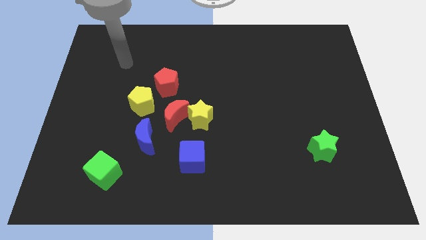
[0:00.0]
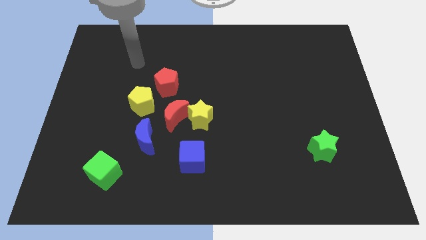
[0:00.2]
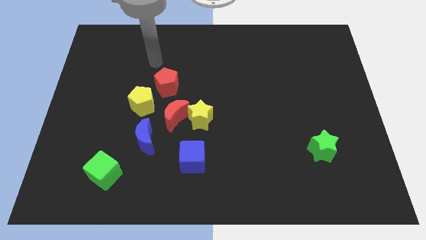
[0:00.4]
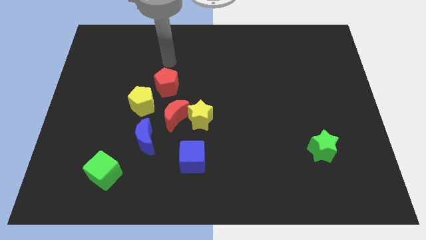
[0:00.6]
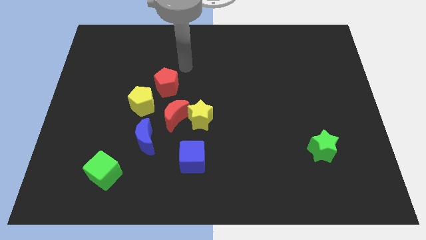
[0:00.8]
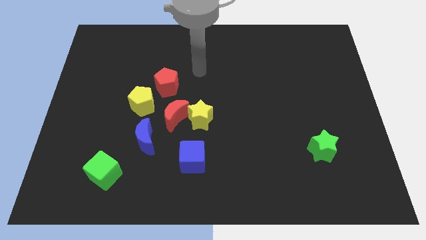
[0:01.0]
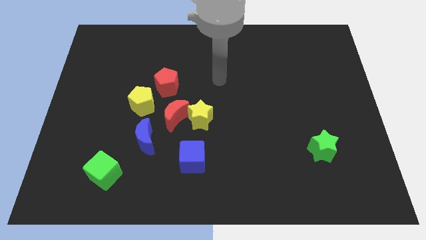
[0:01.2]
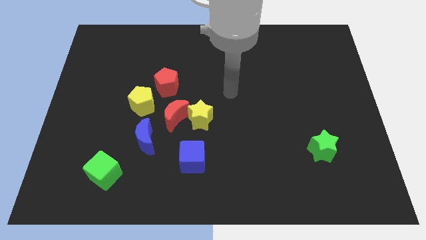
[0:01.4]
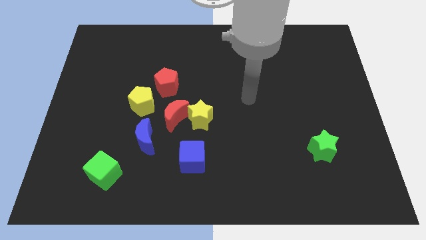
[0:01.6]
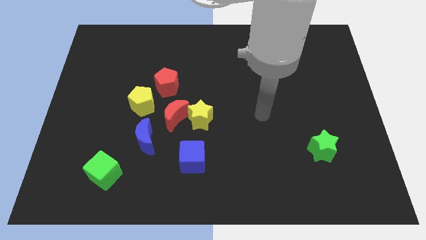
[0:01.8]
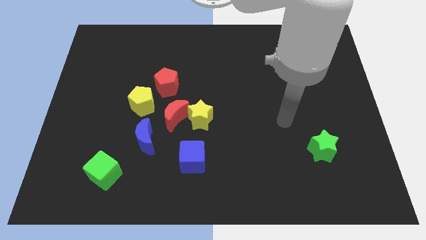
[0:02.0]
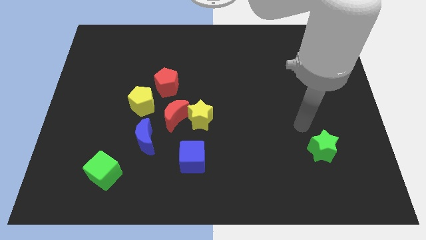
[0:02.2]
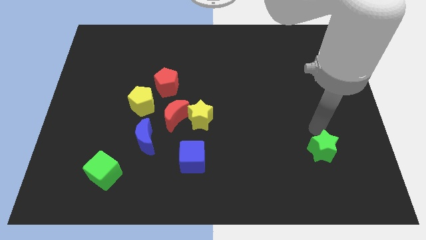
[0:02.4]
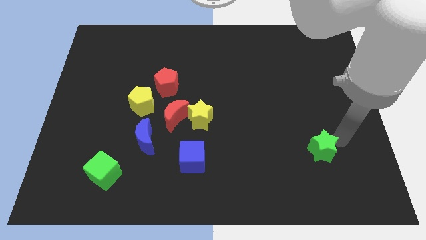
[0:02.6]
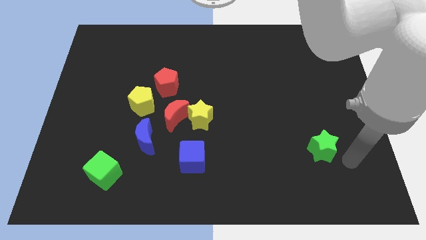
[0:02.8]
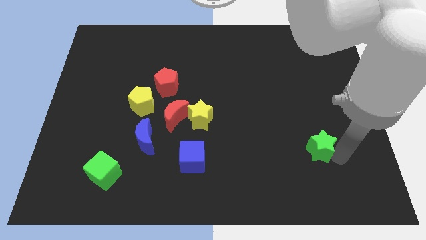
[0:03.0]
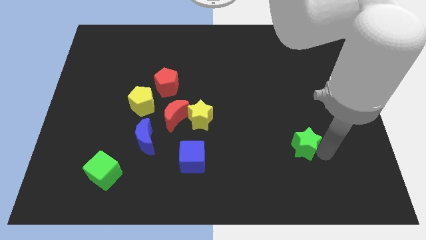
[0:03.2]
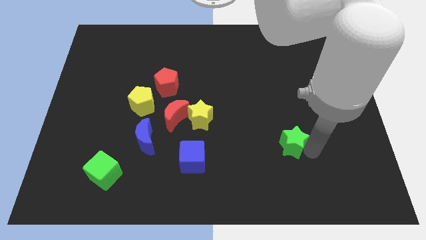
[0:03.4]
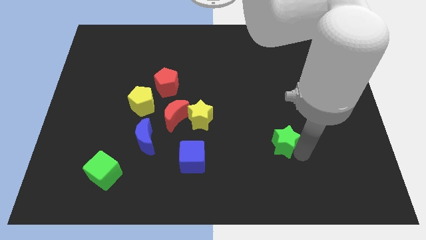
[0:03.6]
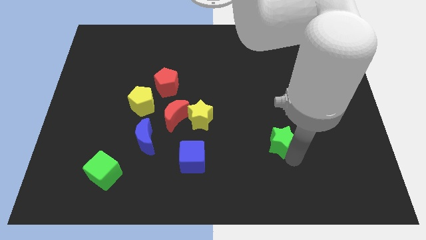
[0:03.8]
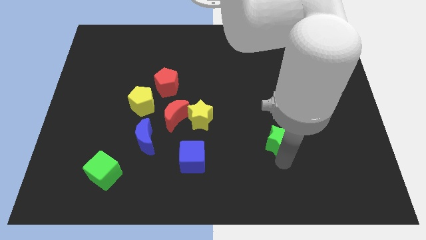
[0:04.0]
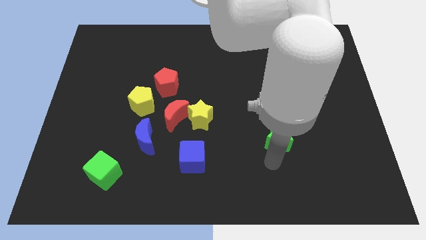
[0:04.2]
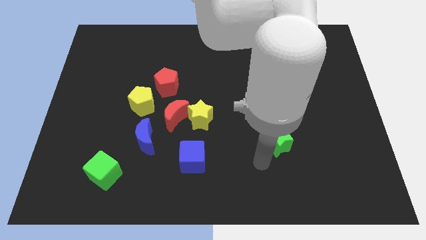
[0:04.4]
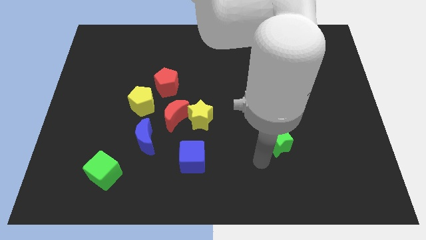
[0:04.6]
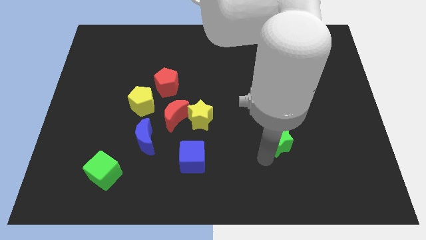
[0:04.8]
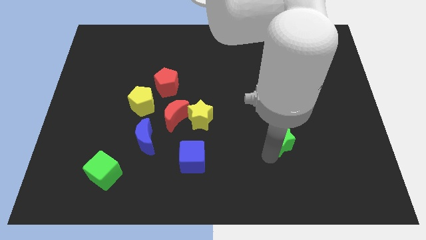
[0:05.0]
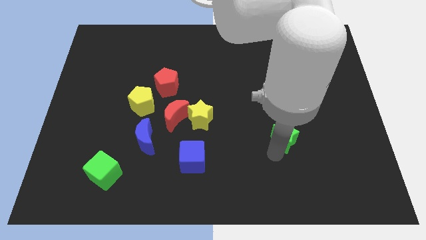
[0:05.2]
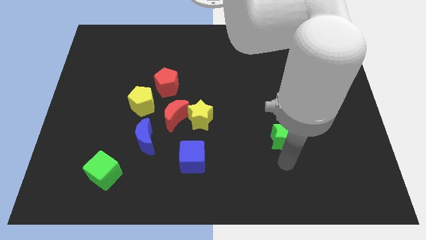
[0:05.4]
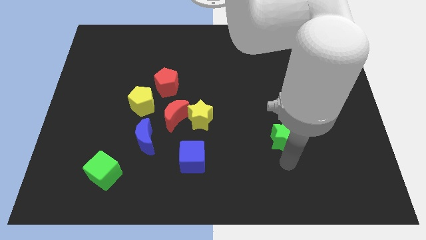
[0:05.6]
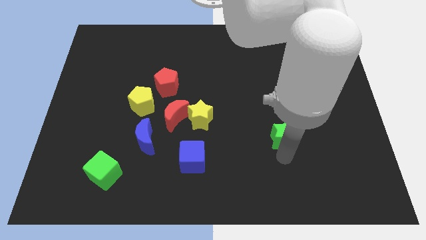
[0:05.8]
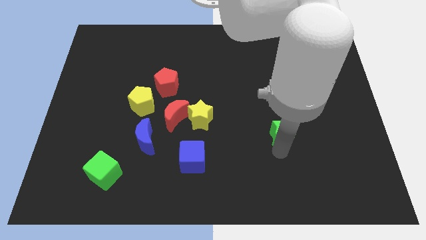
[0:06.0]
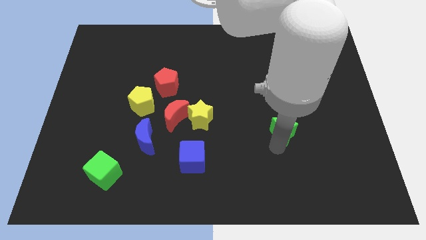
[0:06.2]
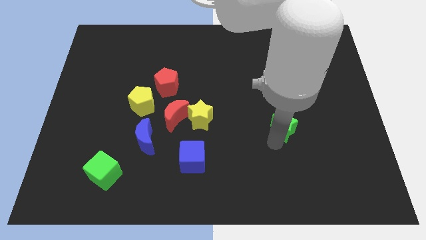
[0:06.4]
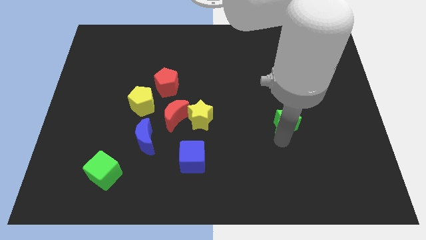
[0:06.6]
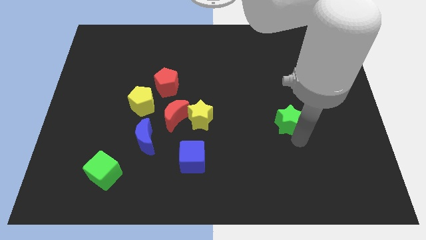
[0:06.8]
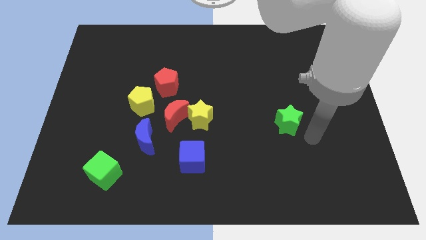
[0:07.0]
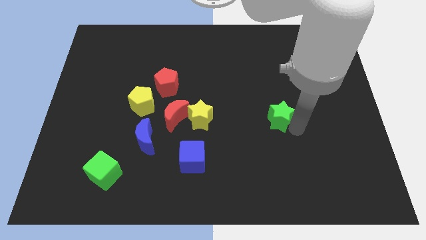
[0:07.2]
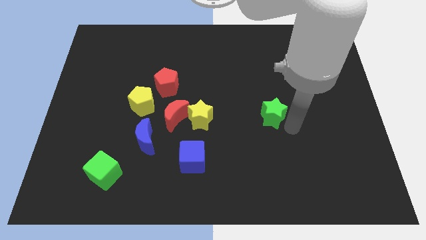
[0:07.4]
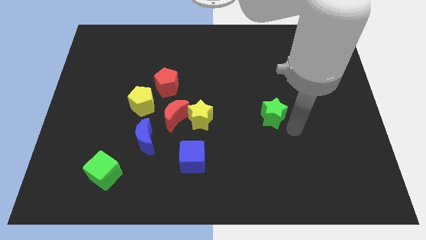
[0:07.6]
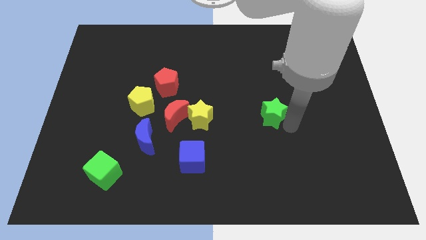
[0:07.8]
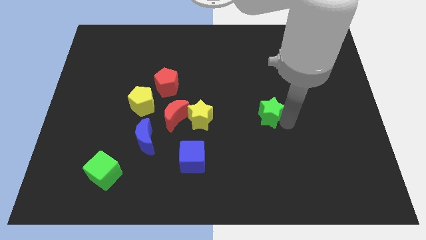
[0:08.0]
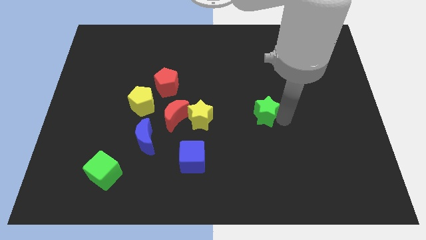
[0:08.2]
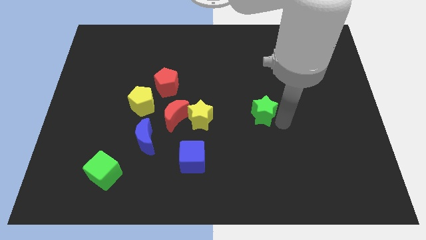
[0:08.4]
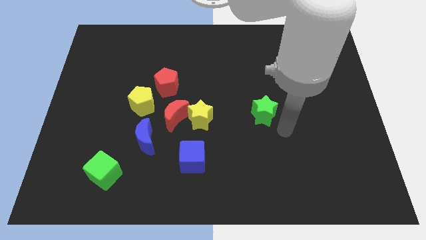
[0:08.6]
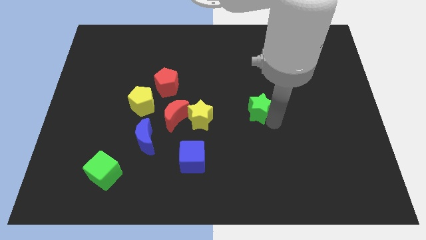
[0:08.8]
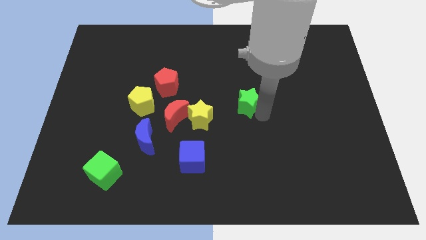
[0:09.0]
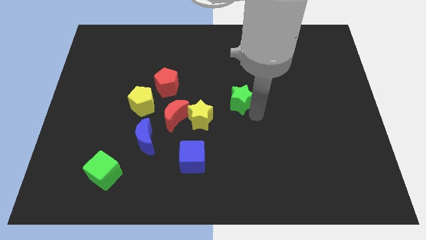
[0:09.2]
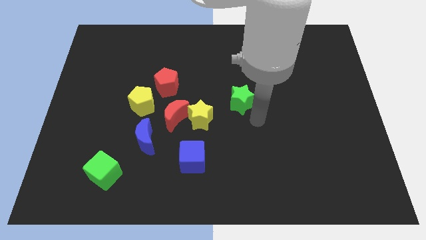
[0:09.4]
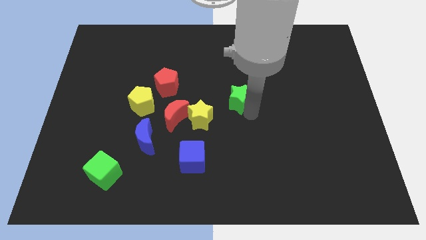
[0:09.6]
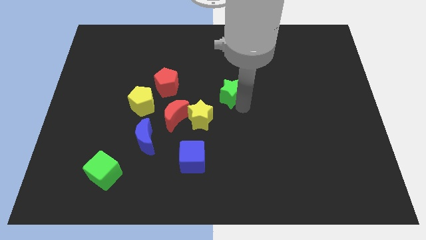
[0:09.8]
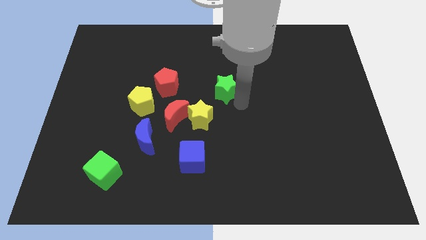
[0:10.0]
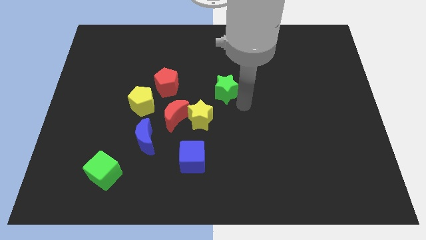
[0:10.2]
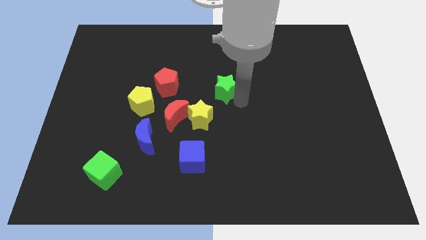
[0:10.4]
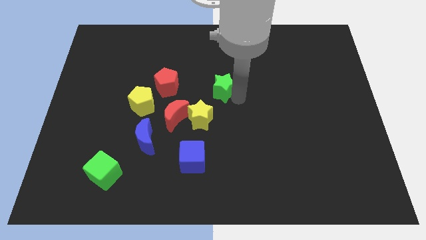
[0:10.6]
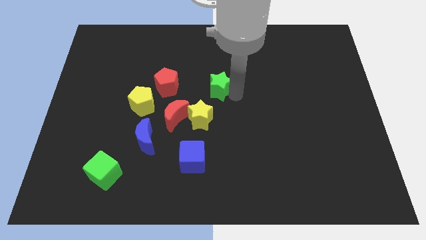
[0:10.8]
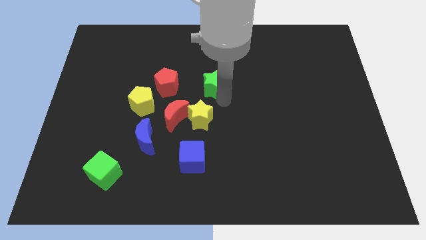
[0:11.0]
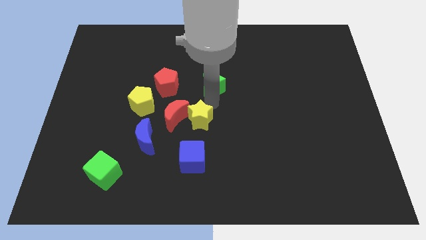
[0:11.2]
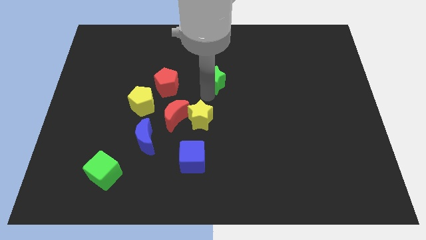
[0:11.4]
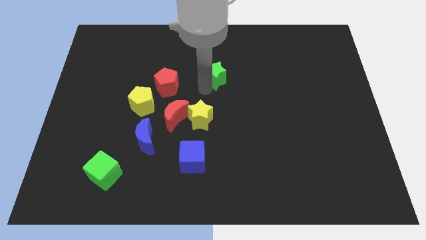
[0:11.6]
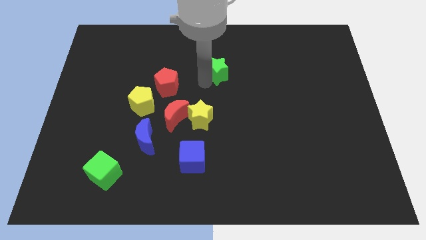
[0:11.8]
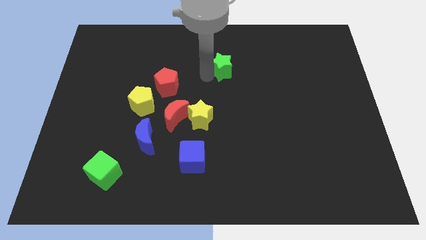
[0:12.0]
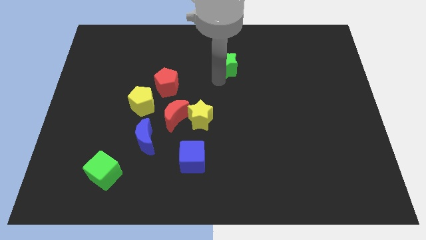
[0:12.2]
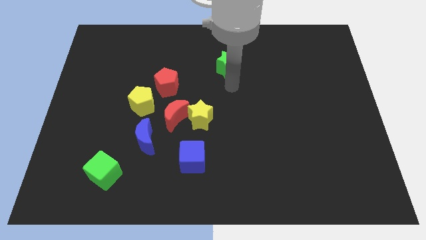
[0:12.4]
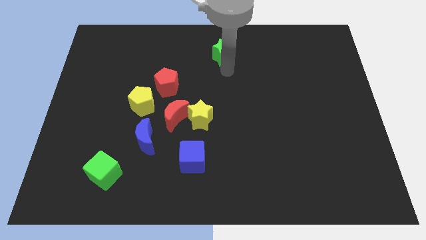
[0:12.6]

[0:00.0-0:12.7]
put the green star to the top
